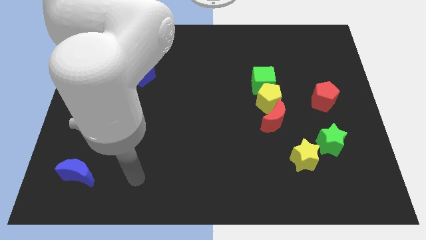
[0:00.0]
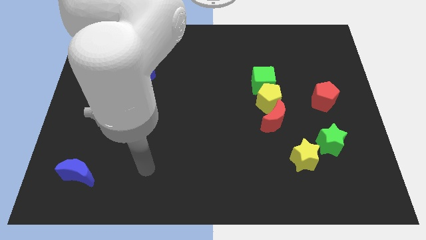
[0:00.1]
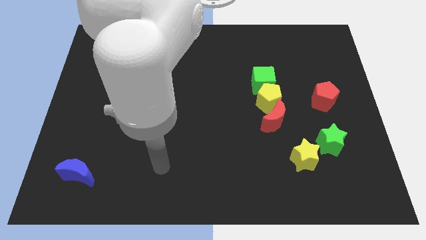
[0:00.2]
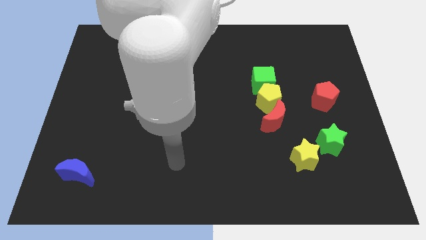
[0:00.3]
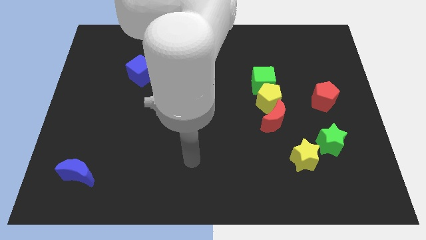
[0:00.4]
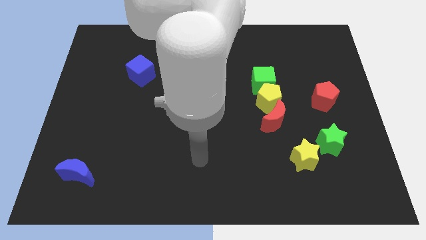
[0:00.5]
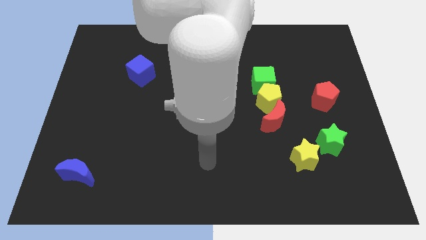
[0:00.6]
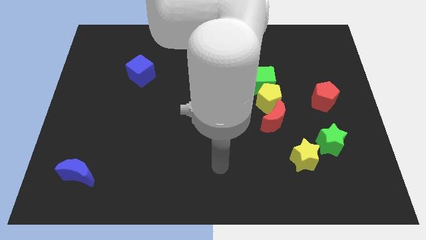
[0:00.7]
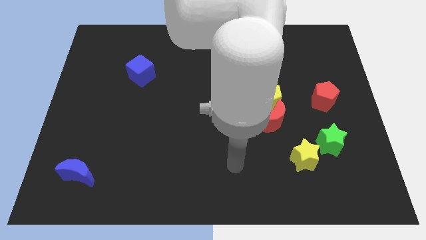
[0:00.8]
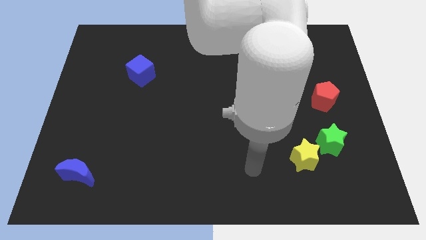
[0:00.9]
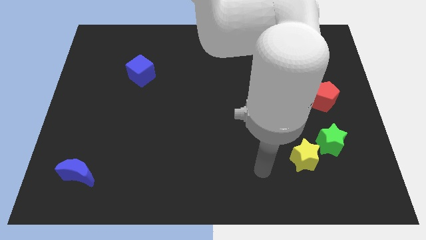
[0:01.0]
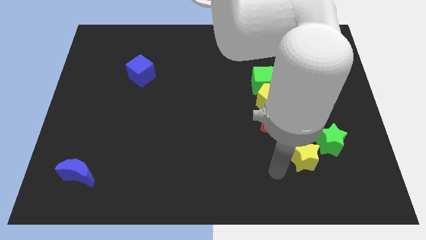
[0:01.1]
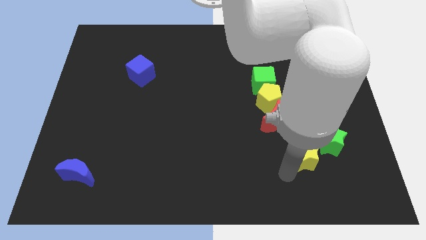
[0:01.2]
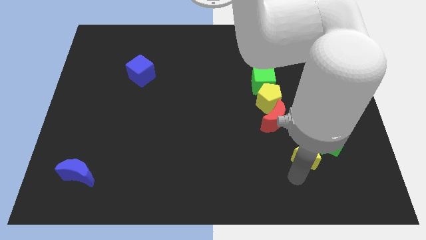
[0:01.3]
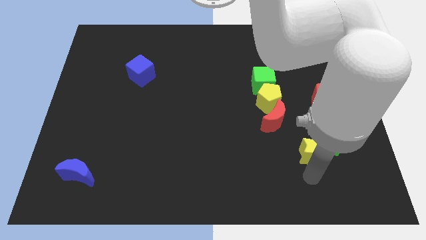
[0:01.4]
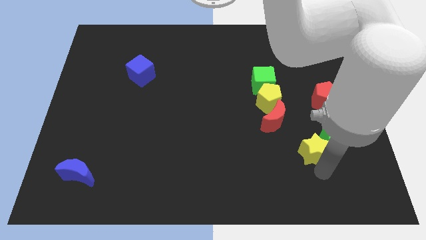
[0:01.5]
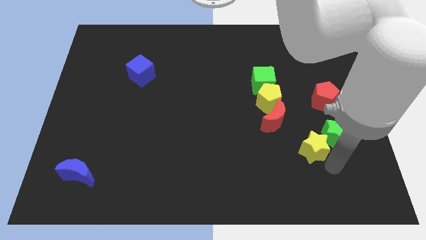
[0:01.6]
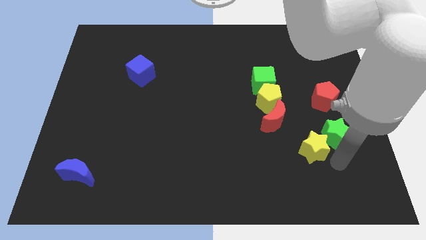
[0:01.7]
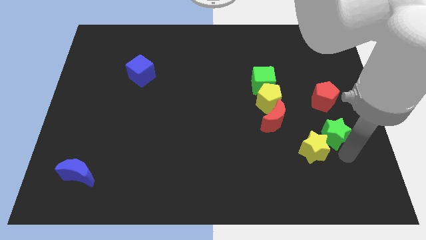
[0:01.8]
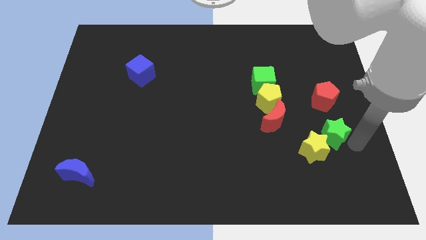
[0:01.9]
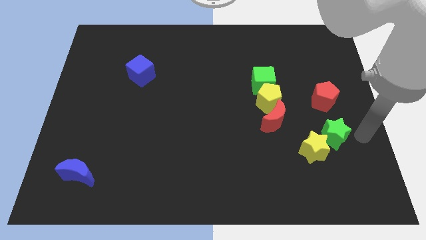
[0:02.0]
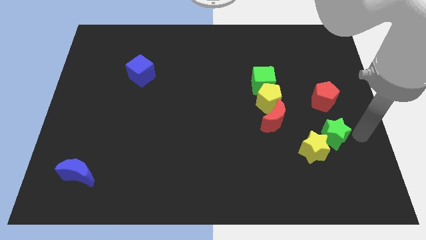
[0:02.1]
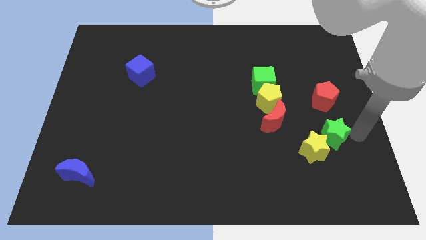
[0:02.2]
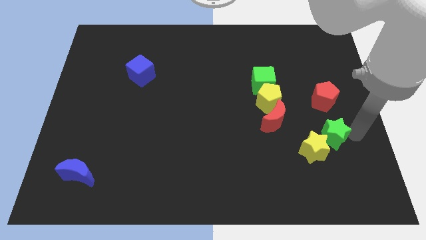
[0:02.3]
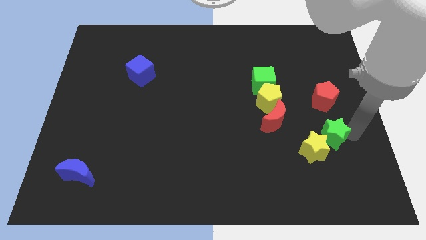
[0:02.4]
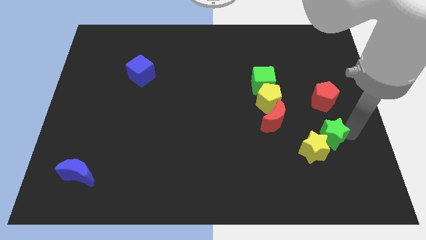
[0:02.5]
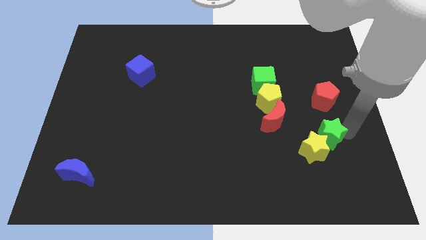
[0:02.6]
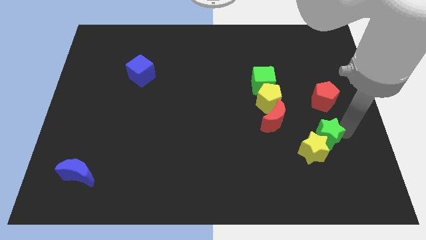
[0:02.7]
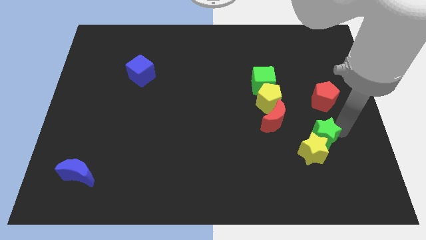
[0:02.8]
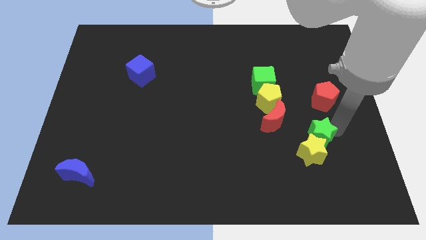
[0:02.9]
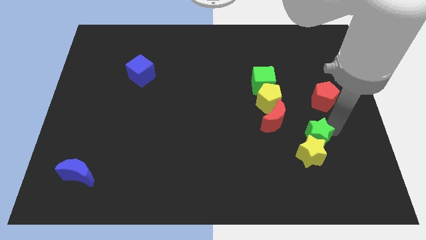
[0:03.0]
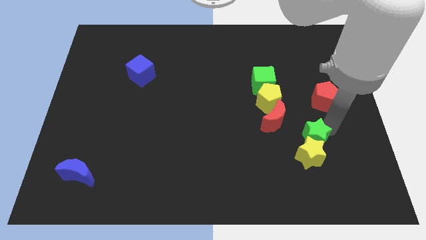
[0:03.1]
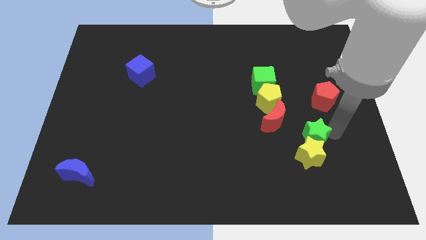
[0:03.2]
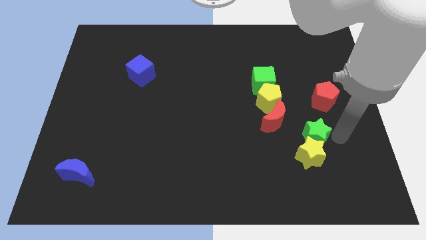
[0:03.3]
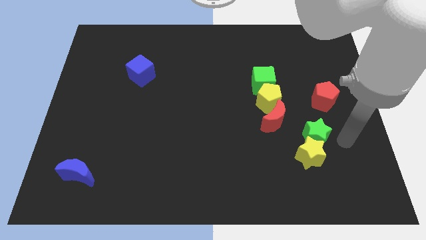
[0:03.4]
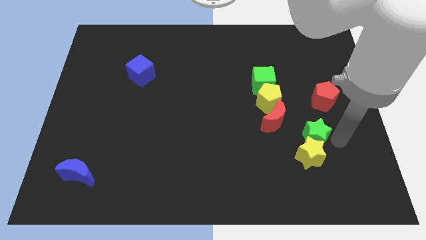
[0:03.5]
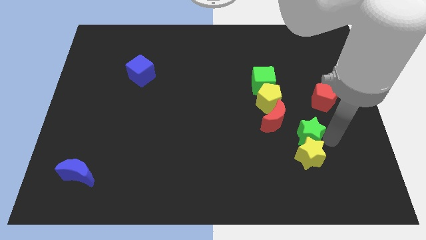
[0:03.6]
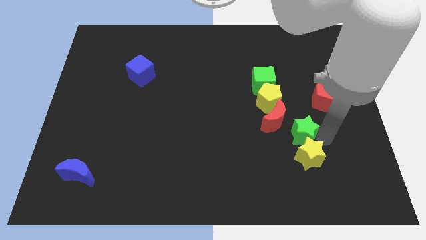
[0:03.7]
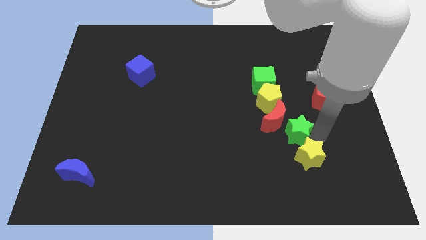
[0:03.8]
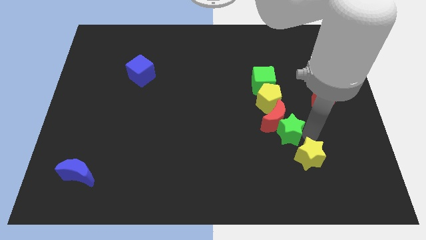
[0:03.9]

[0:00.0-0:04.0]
move the green star left somewhat

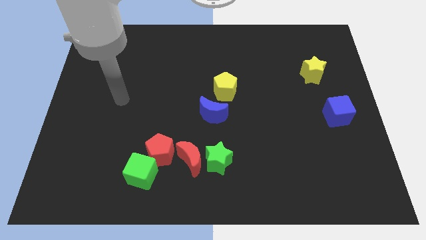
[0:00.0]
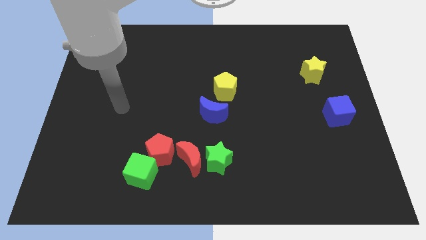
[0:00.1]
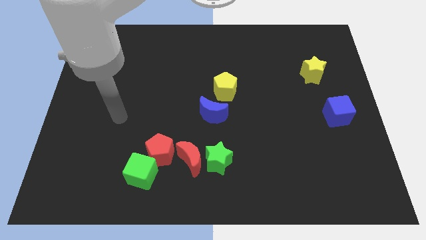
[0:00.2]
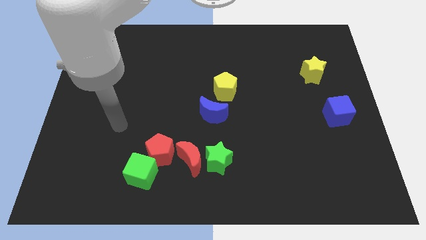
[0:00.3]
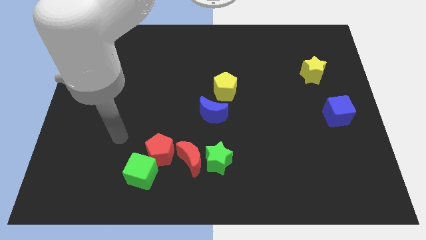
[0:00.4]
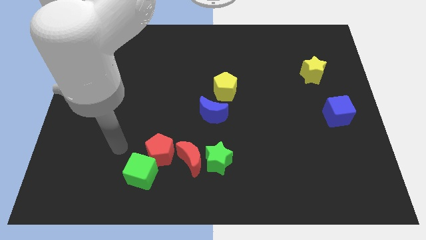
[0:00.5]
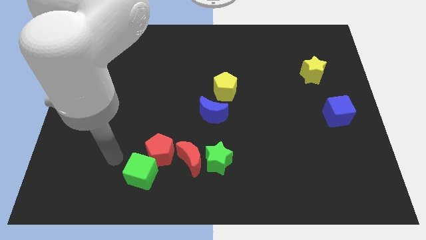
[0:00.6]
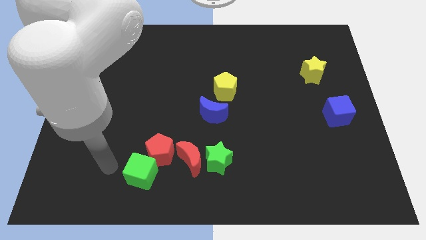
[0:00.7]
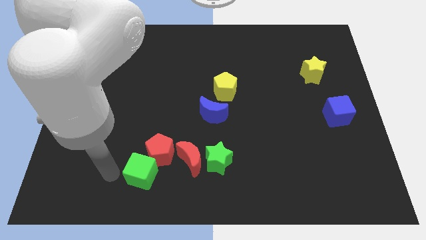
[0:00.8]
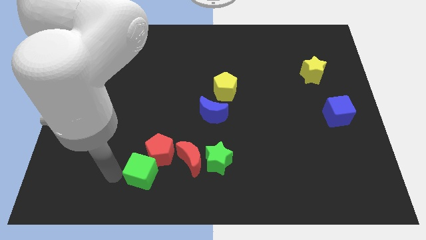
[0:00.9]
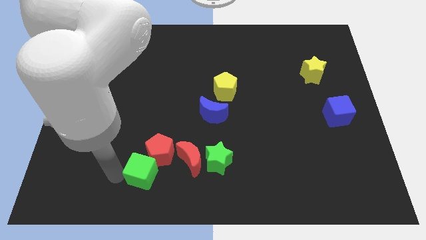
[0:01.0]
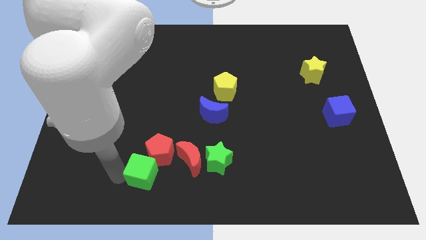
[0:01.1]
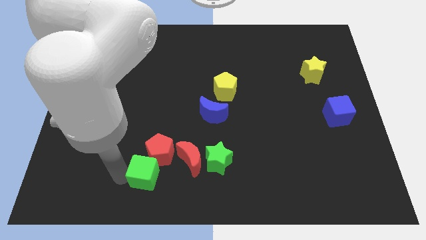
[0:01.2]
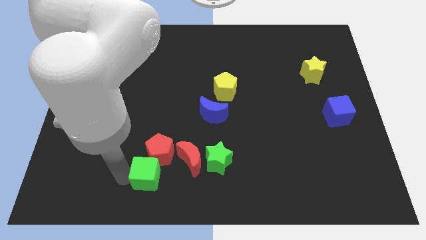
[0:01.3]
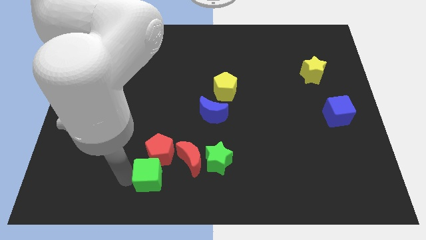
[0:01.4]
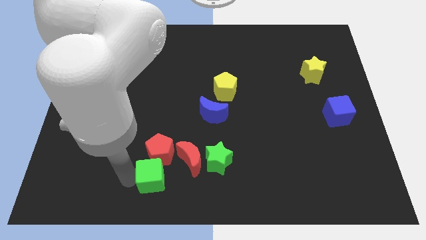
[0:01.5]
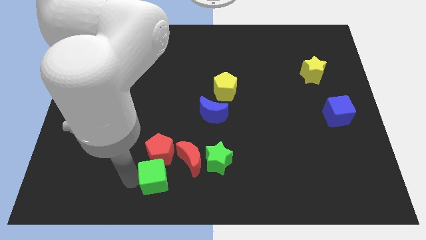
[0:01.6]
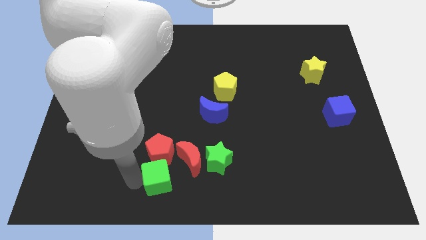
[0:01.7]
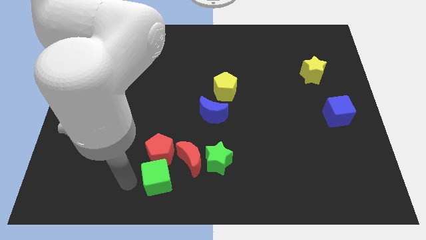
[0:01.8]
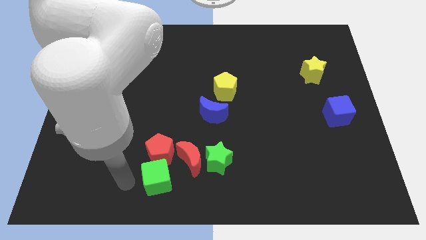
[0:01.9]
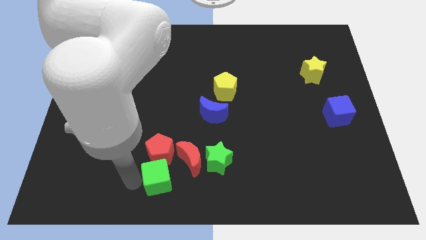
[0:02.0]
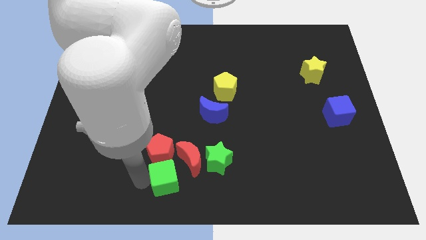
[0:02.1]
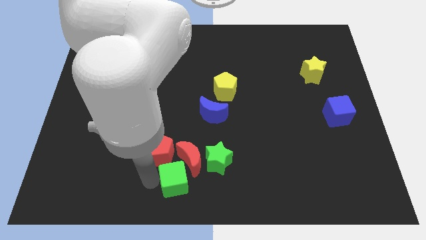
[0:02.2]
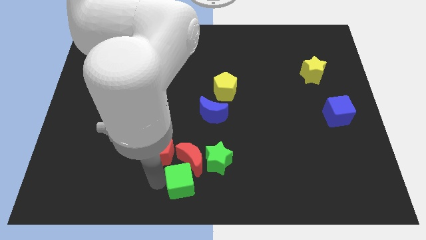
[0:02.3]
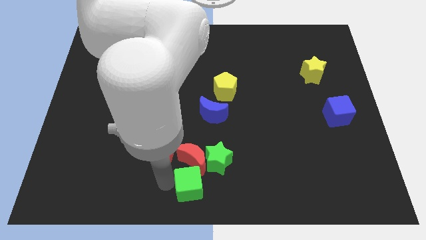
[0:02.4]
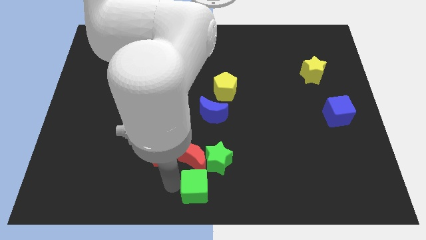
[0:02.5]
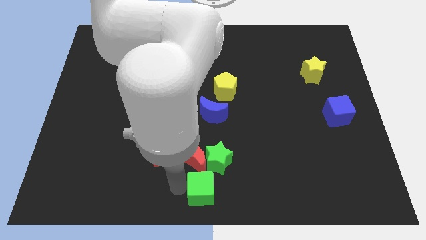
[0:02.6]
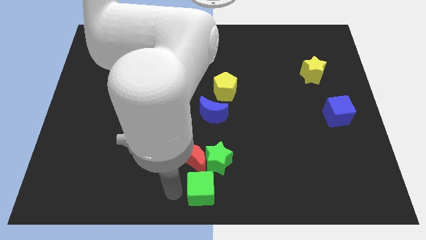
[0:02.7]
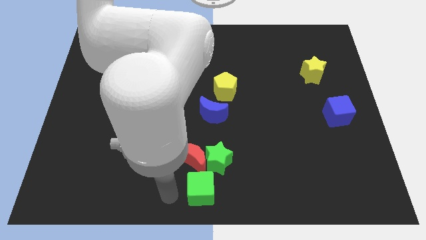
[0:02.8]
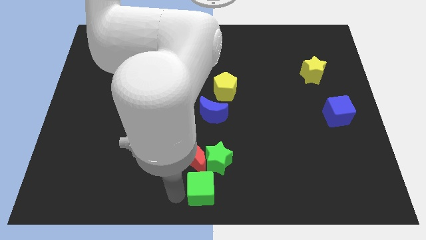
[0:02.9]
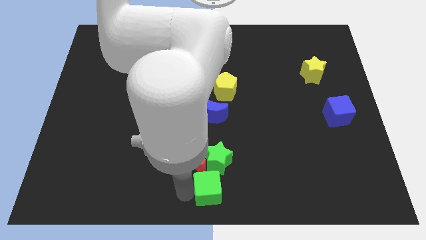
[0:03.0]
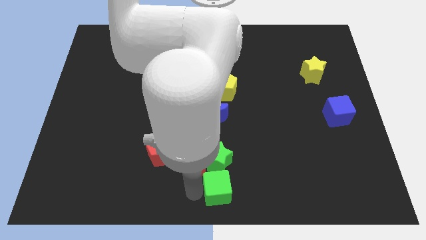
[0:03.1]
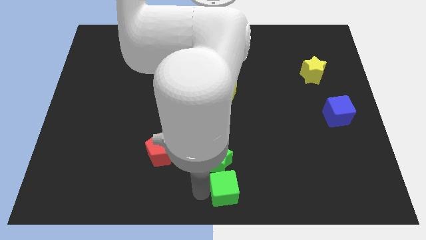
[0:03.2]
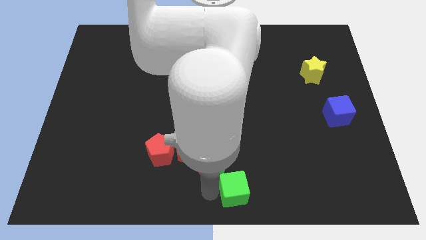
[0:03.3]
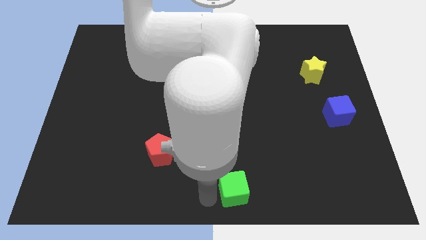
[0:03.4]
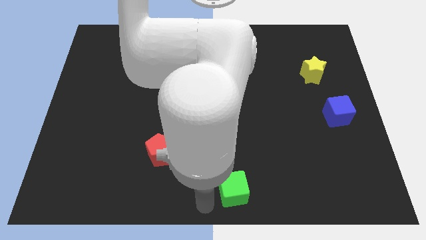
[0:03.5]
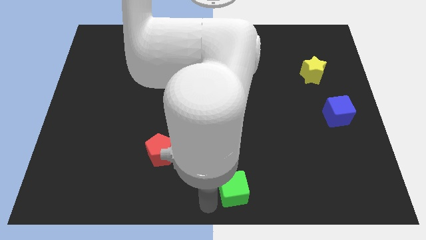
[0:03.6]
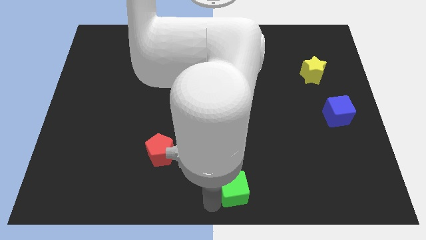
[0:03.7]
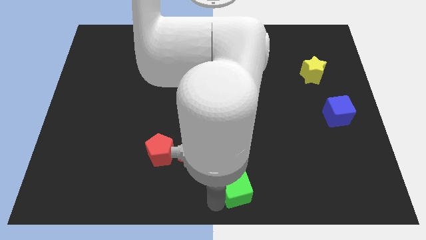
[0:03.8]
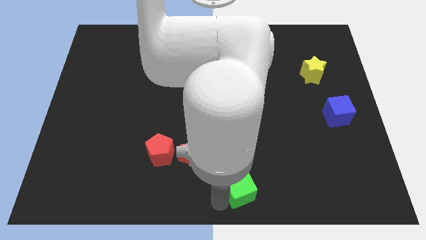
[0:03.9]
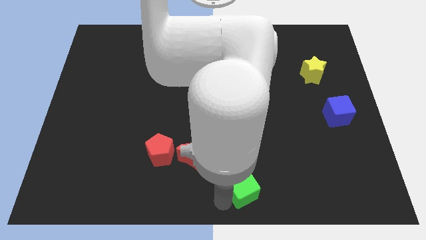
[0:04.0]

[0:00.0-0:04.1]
push the green cube to the right
